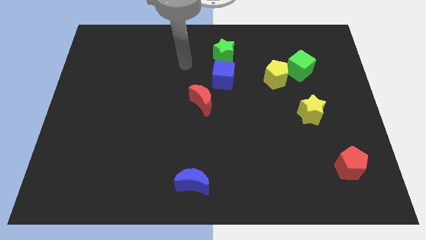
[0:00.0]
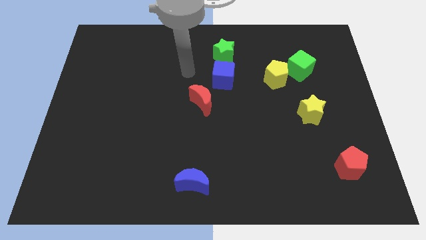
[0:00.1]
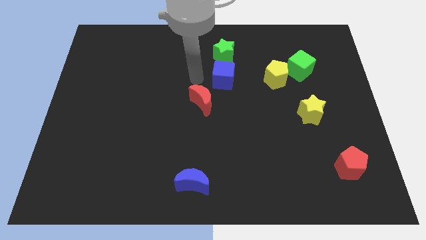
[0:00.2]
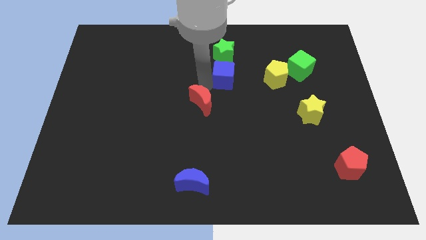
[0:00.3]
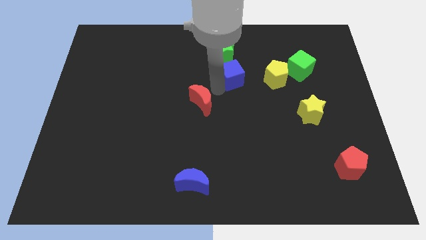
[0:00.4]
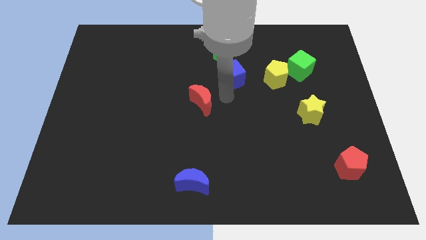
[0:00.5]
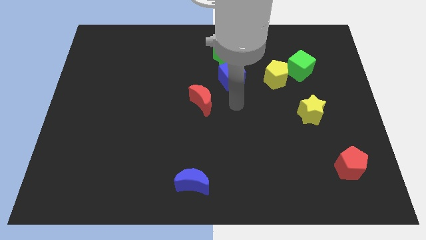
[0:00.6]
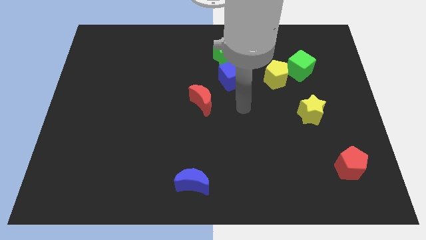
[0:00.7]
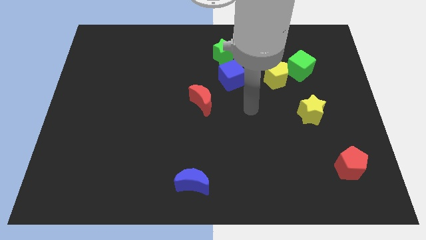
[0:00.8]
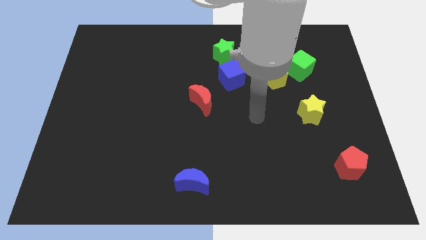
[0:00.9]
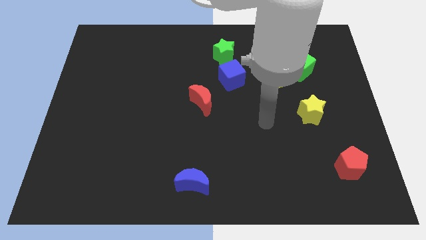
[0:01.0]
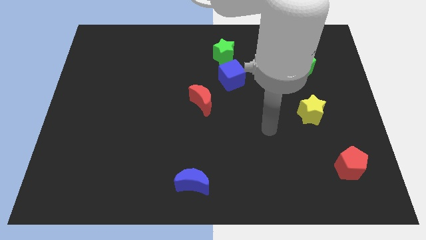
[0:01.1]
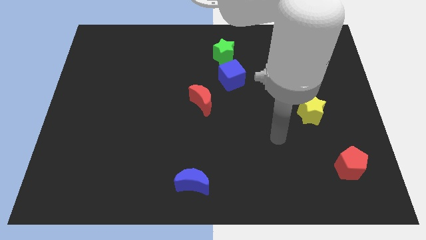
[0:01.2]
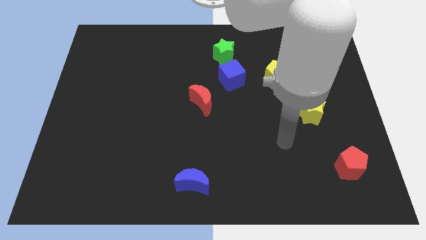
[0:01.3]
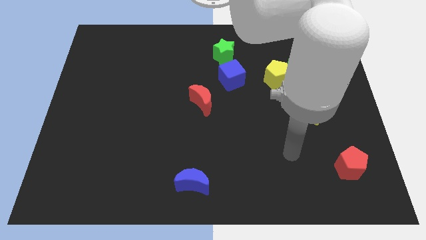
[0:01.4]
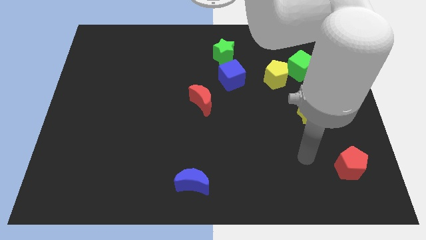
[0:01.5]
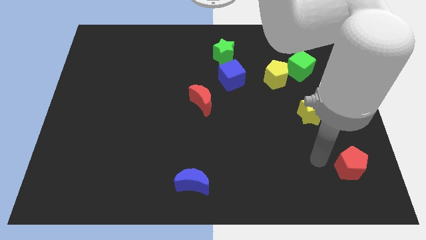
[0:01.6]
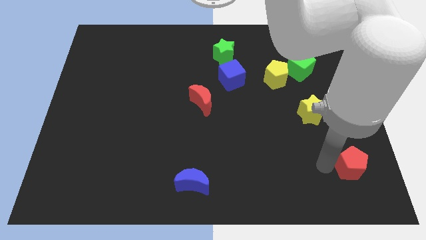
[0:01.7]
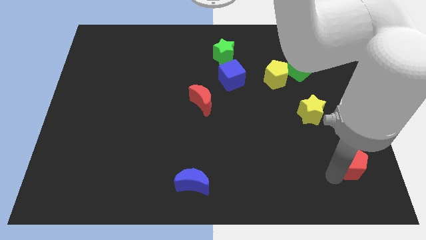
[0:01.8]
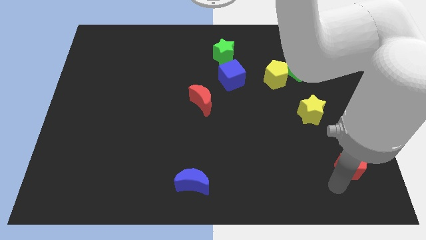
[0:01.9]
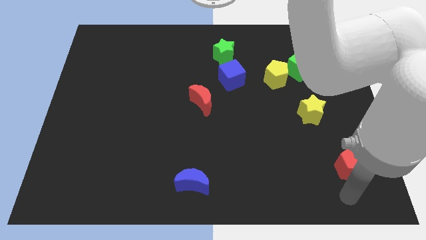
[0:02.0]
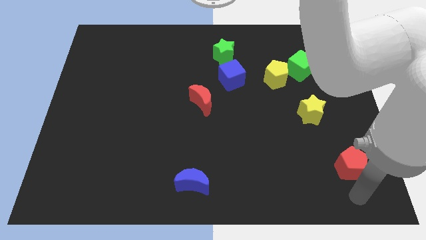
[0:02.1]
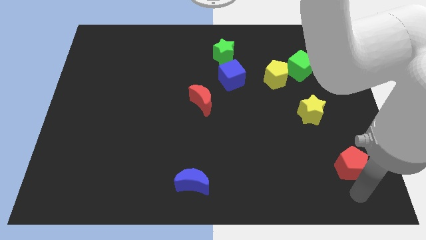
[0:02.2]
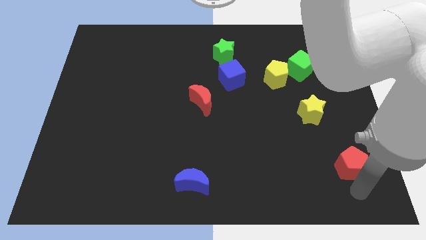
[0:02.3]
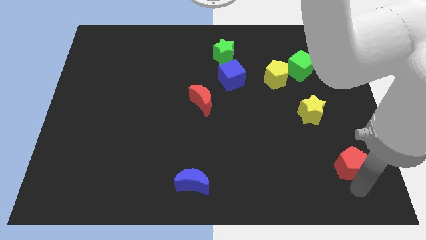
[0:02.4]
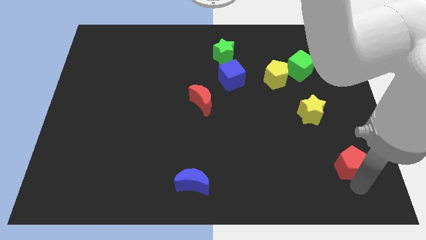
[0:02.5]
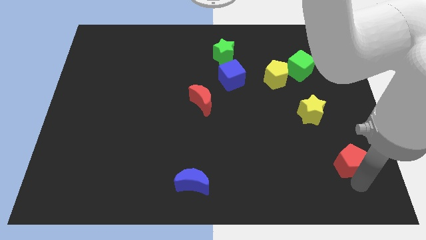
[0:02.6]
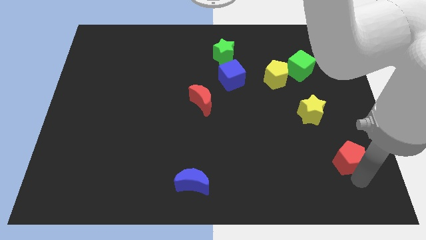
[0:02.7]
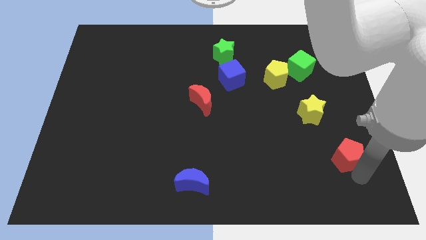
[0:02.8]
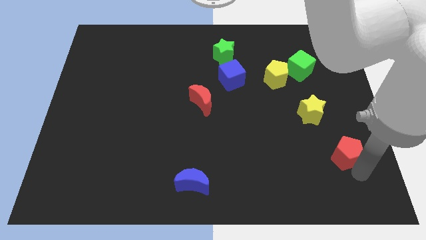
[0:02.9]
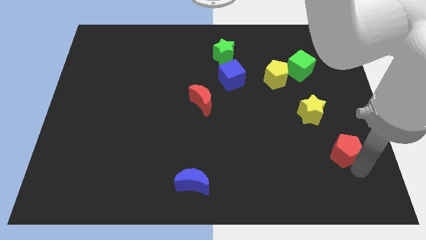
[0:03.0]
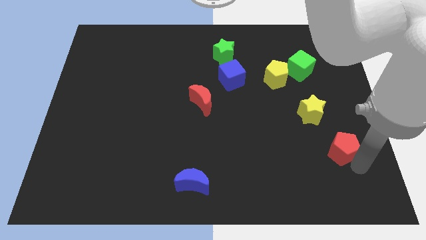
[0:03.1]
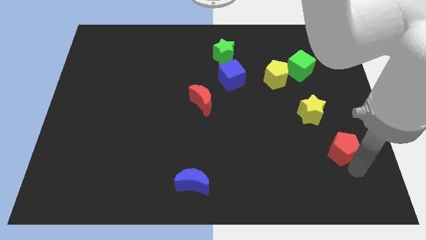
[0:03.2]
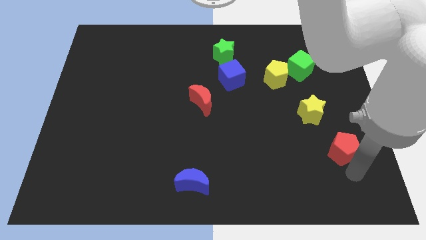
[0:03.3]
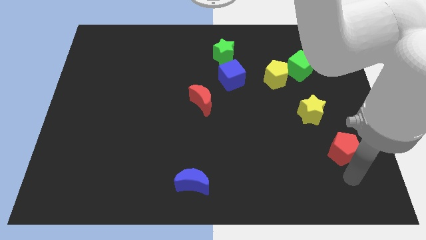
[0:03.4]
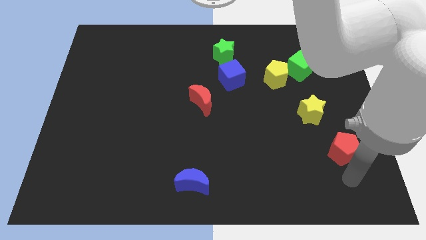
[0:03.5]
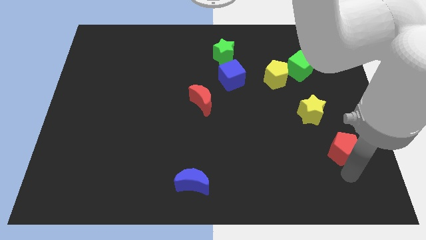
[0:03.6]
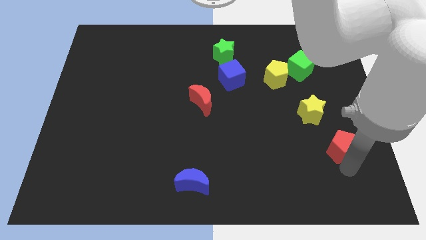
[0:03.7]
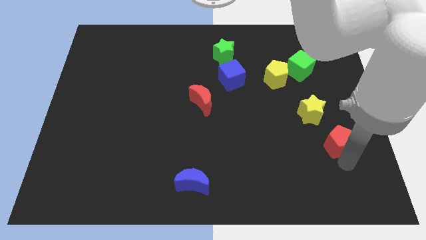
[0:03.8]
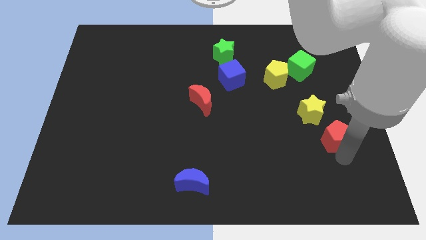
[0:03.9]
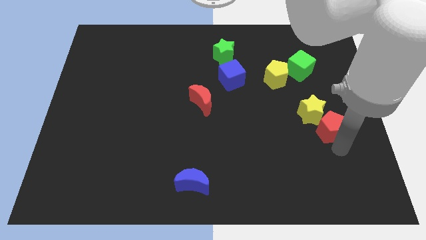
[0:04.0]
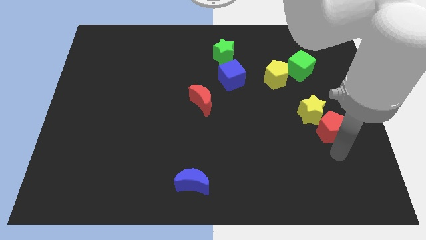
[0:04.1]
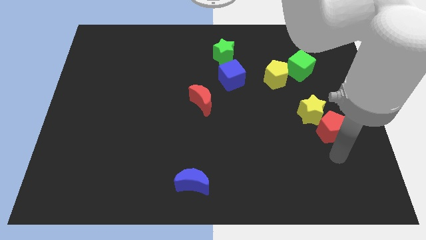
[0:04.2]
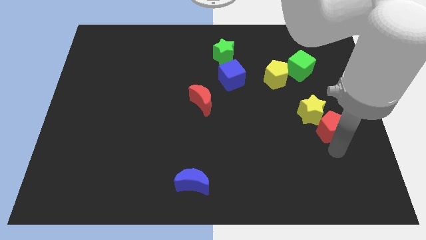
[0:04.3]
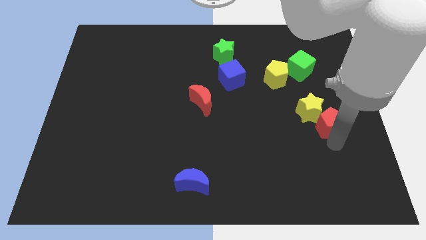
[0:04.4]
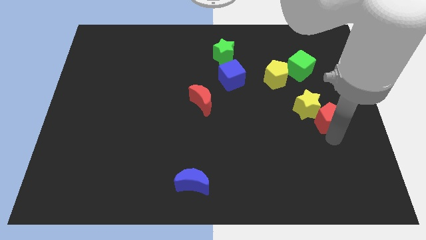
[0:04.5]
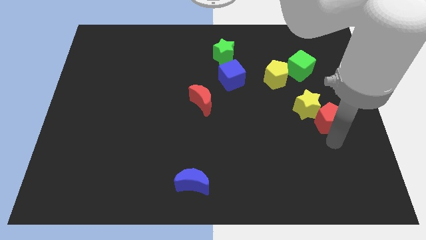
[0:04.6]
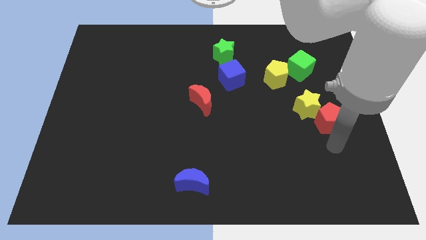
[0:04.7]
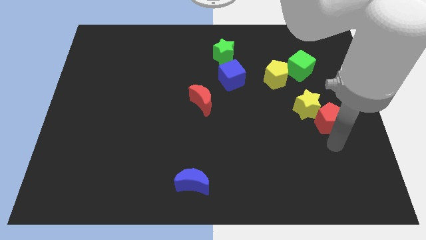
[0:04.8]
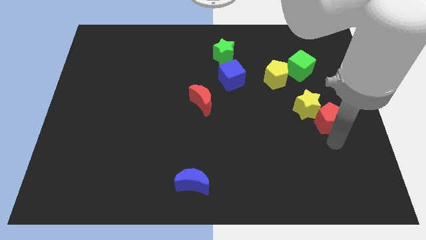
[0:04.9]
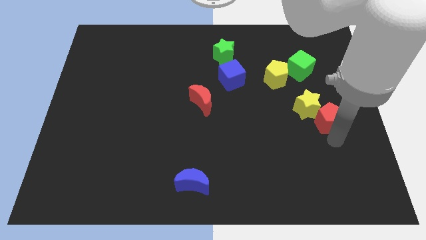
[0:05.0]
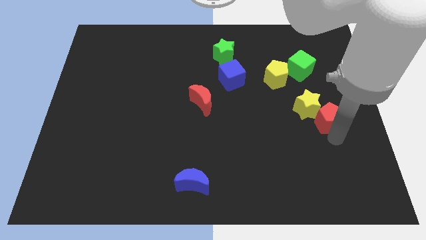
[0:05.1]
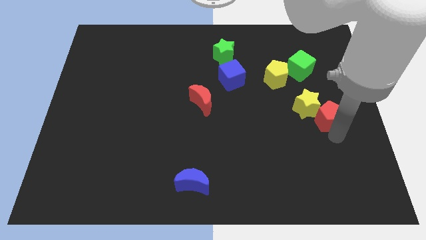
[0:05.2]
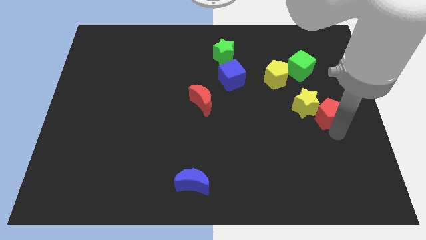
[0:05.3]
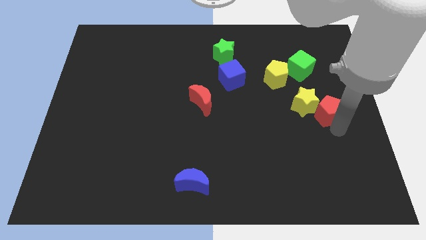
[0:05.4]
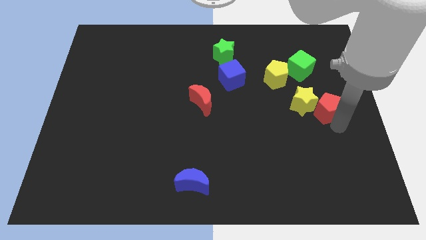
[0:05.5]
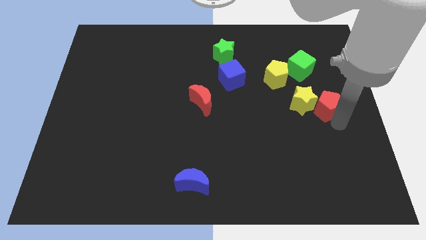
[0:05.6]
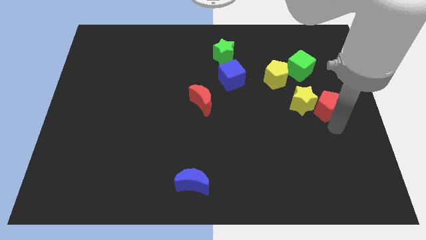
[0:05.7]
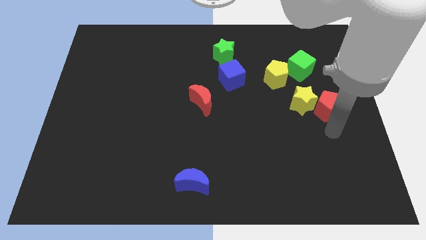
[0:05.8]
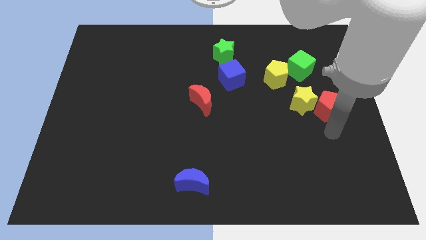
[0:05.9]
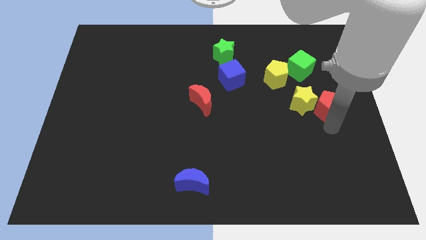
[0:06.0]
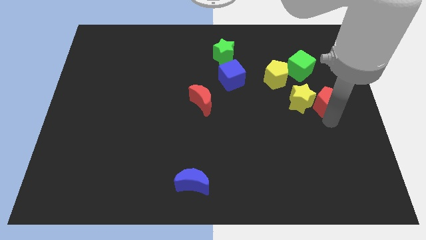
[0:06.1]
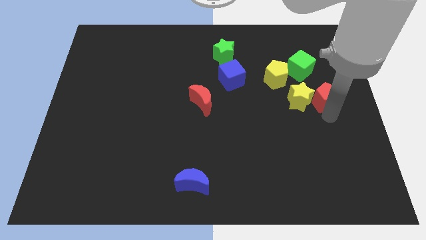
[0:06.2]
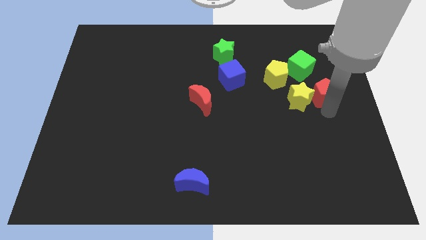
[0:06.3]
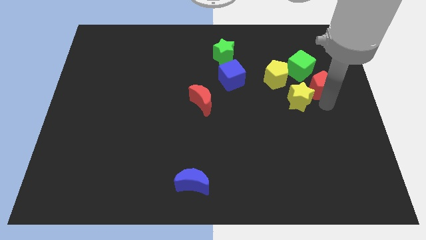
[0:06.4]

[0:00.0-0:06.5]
slide the red pentagon up

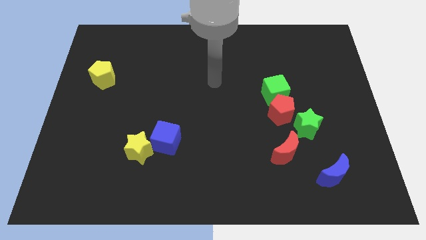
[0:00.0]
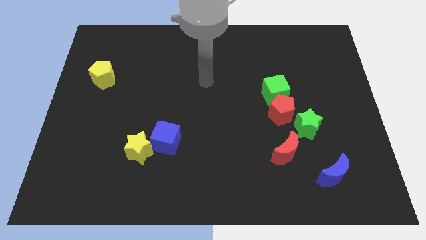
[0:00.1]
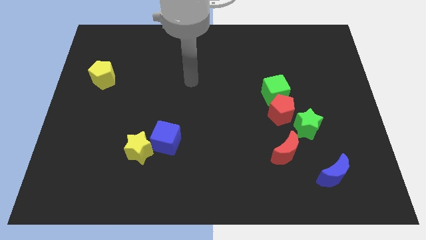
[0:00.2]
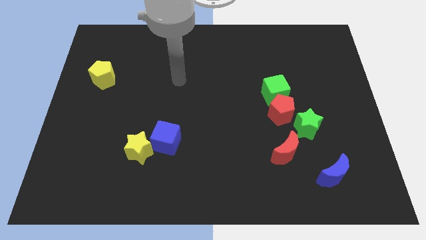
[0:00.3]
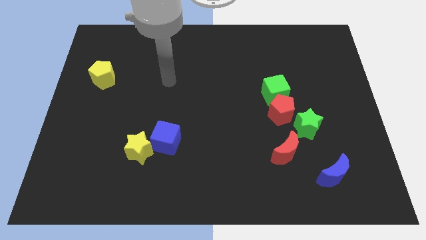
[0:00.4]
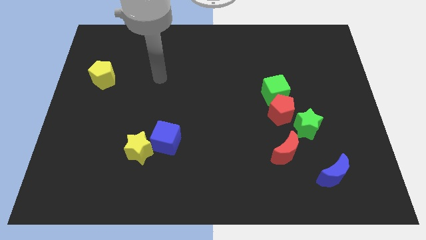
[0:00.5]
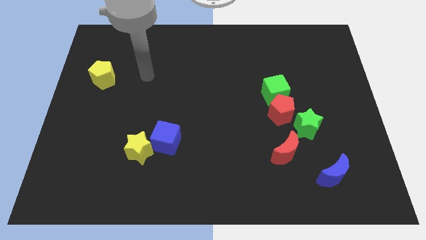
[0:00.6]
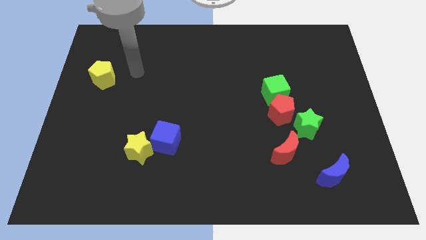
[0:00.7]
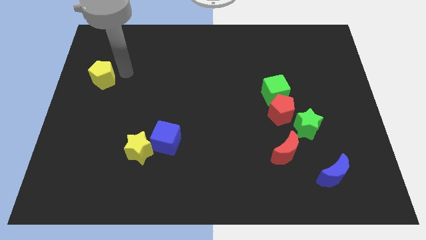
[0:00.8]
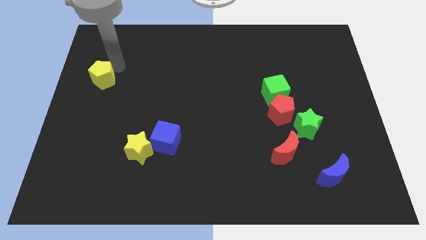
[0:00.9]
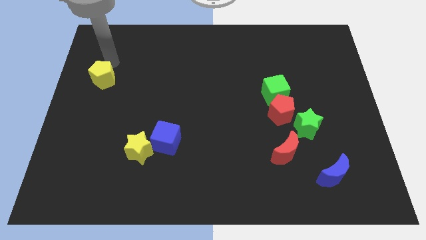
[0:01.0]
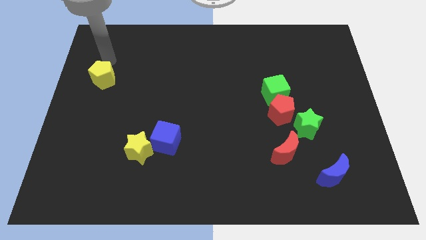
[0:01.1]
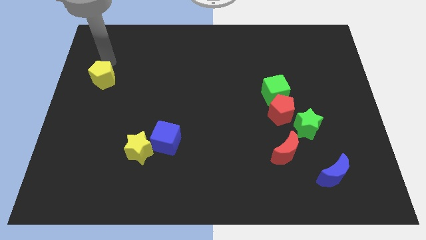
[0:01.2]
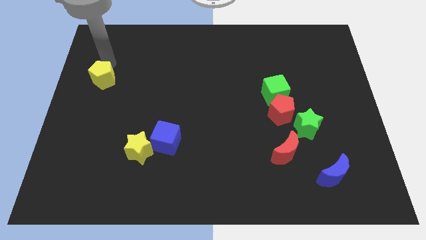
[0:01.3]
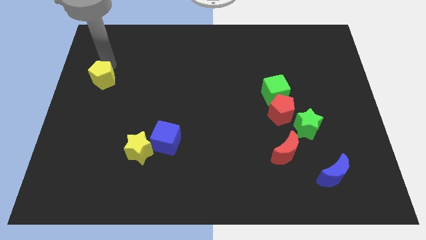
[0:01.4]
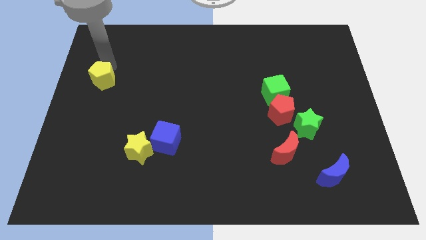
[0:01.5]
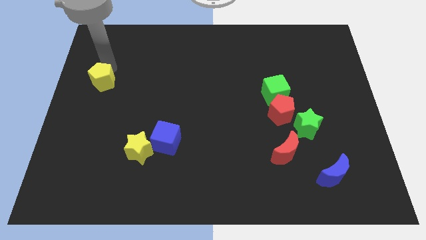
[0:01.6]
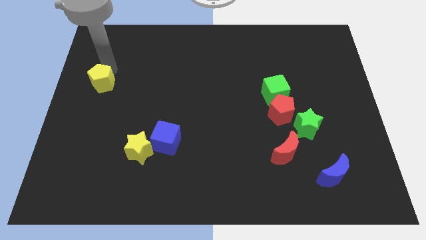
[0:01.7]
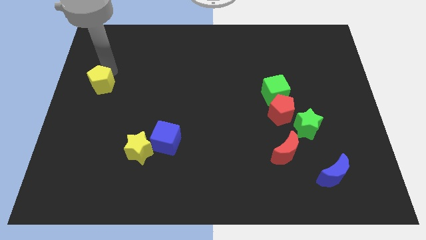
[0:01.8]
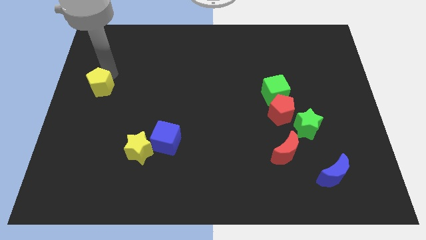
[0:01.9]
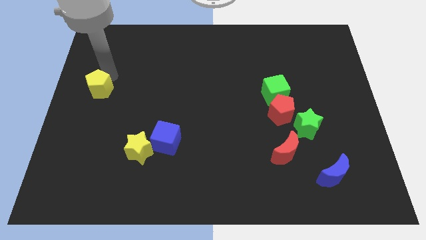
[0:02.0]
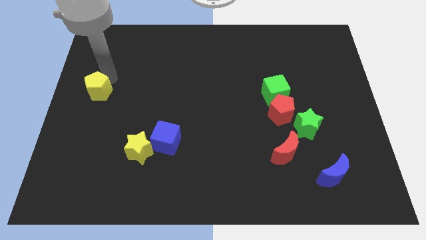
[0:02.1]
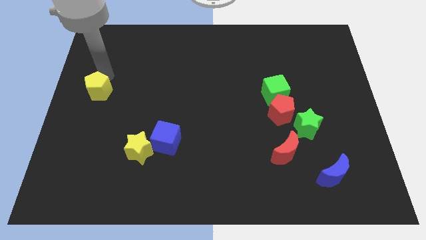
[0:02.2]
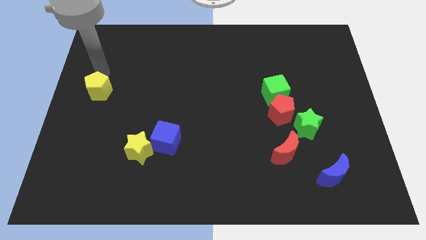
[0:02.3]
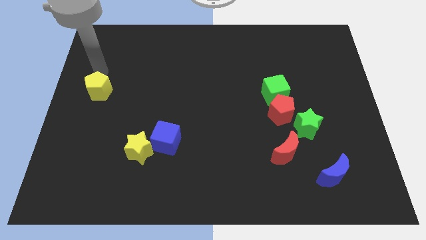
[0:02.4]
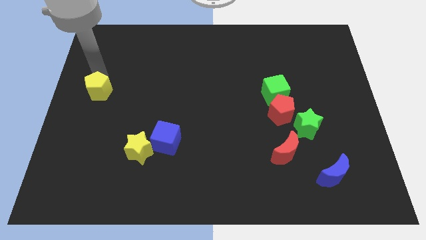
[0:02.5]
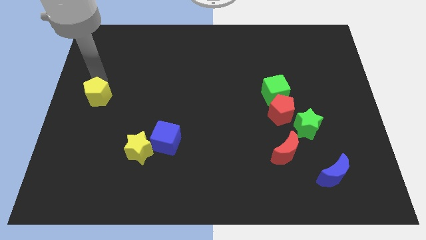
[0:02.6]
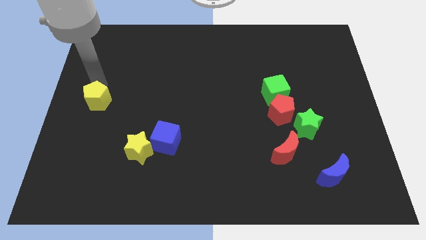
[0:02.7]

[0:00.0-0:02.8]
slightly slide the yellow pentagon downwards
